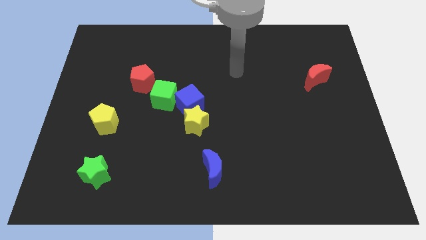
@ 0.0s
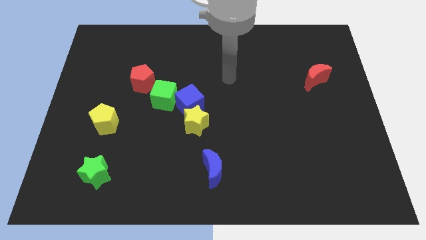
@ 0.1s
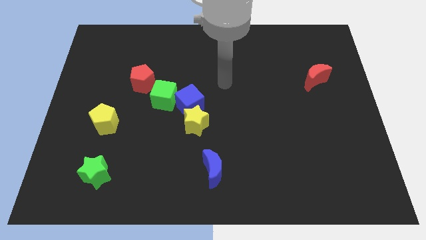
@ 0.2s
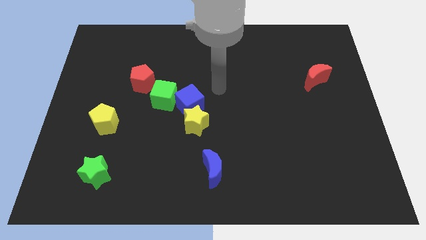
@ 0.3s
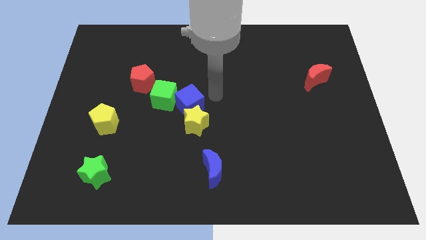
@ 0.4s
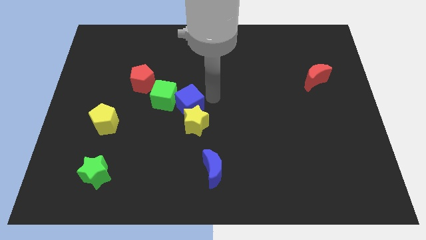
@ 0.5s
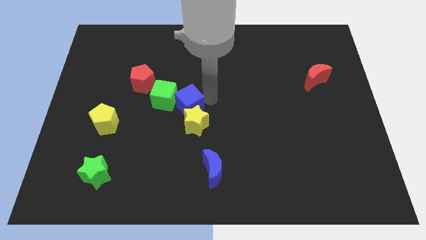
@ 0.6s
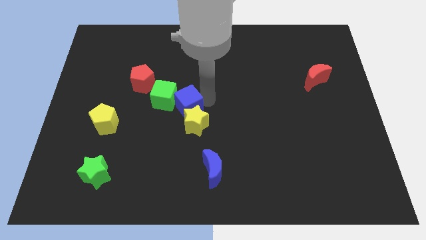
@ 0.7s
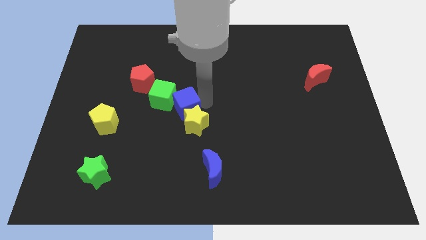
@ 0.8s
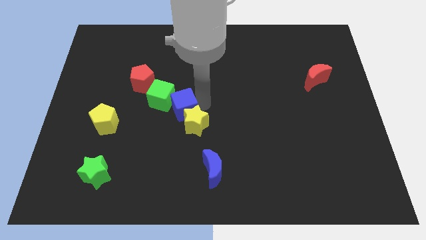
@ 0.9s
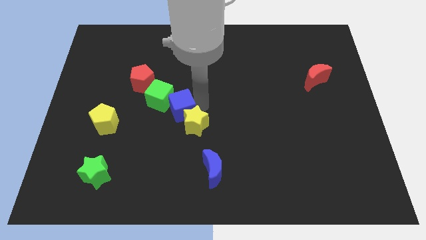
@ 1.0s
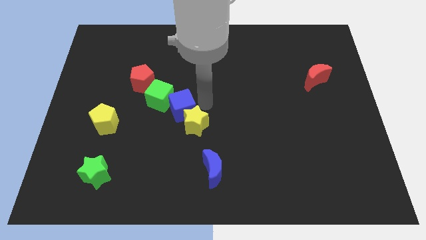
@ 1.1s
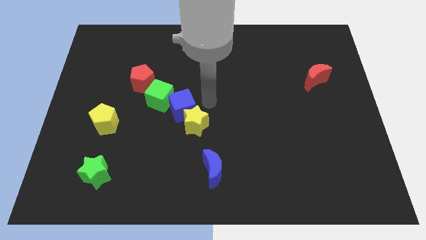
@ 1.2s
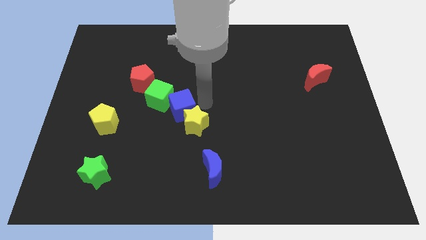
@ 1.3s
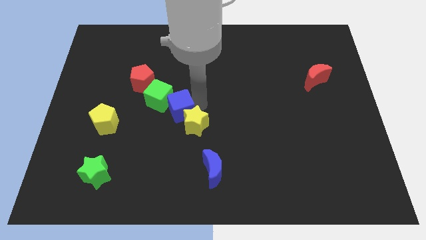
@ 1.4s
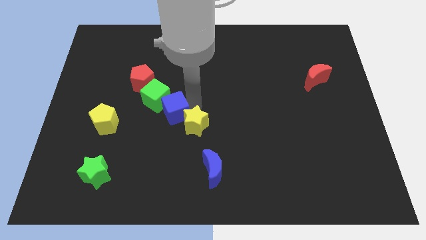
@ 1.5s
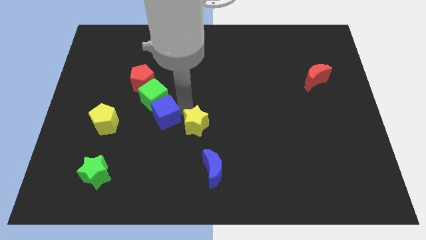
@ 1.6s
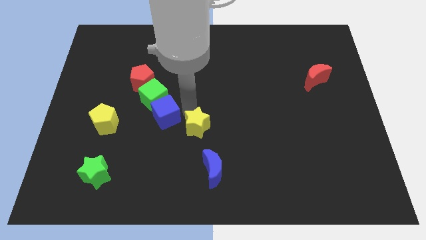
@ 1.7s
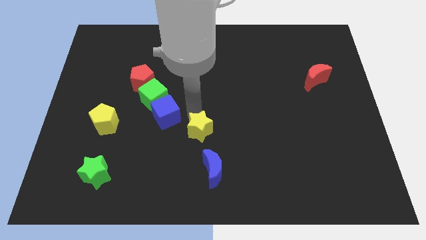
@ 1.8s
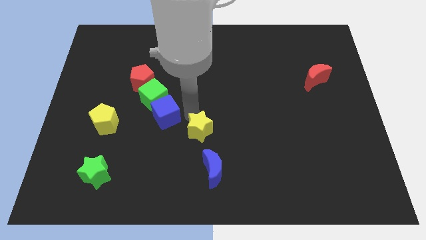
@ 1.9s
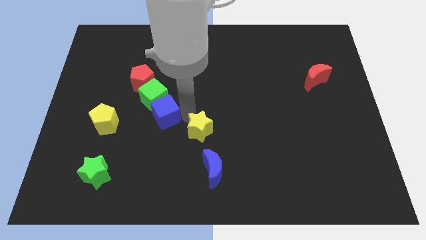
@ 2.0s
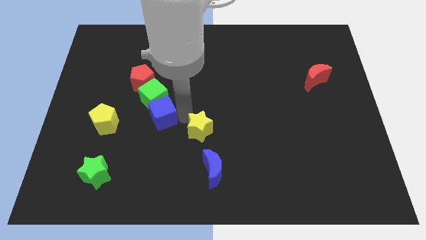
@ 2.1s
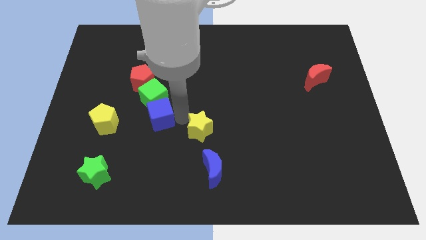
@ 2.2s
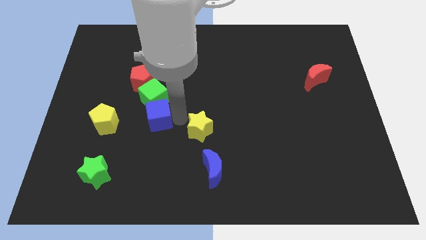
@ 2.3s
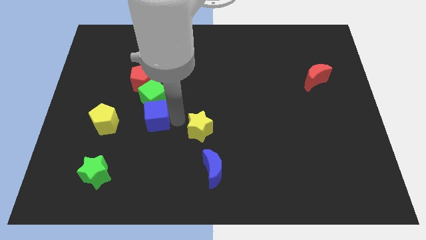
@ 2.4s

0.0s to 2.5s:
move the blue cube to the left a little

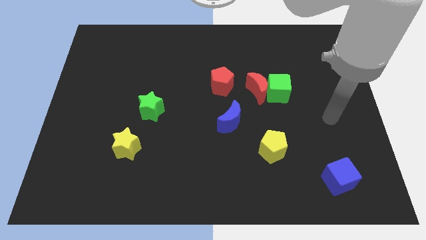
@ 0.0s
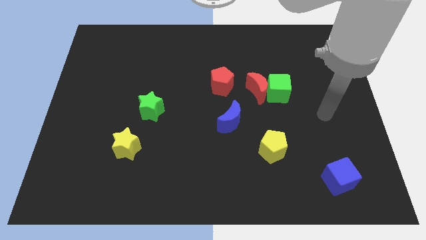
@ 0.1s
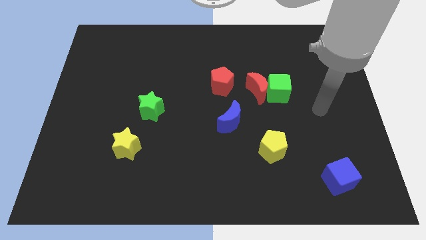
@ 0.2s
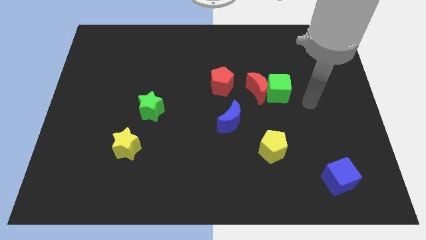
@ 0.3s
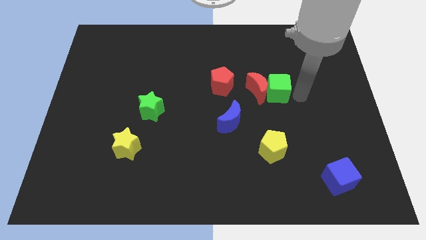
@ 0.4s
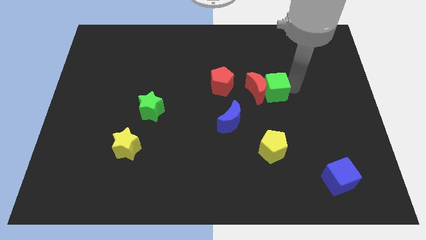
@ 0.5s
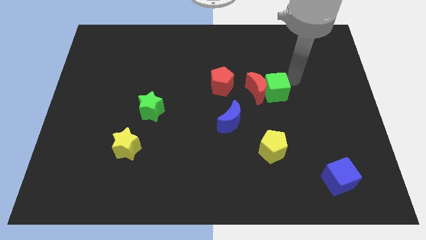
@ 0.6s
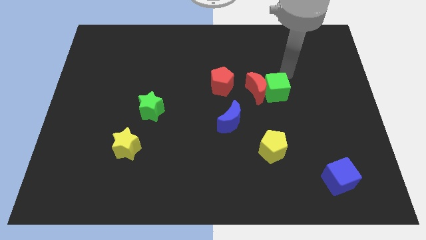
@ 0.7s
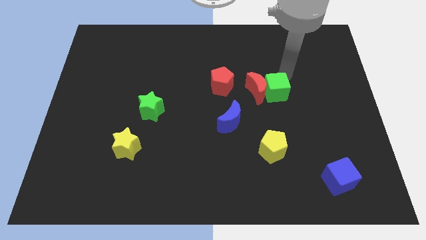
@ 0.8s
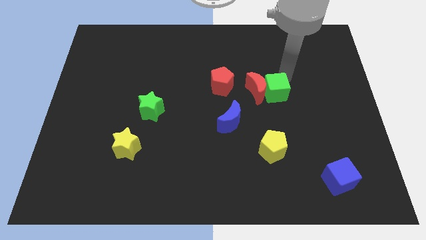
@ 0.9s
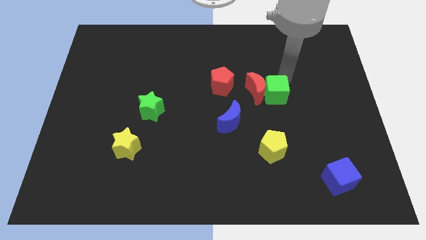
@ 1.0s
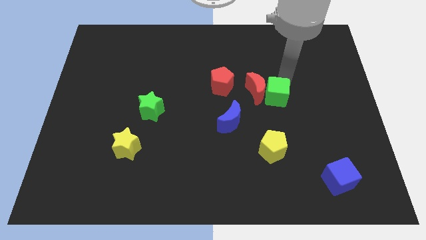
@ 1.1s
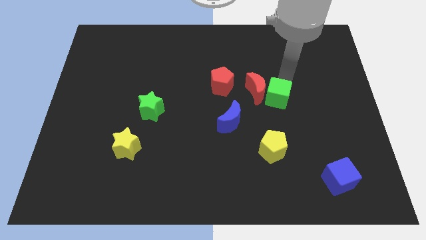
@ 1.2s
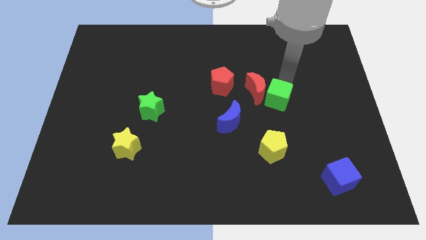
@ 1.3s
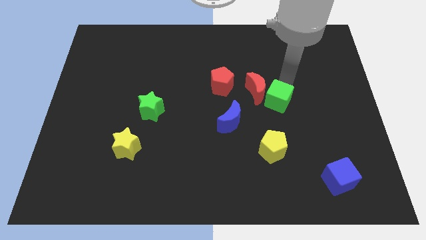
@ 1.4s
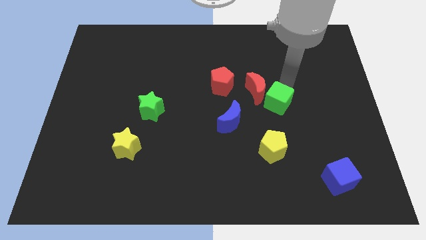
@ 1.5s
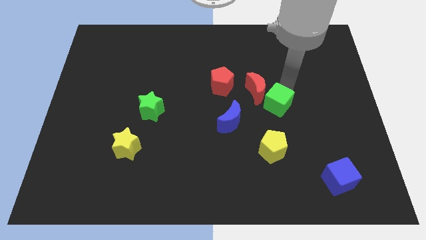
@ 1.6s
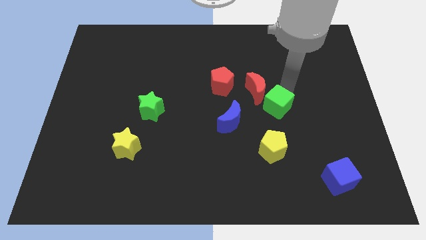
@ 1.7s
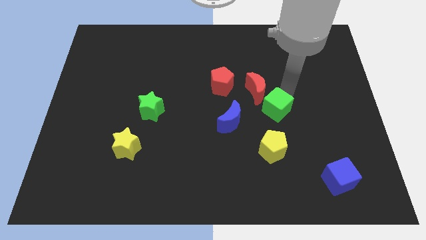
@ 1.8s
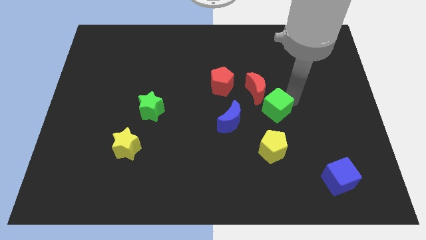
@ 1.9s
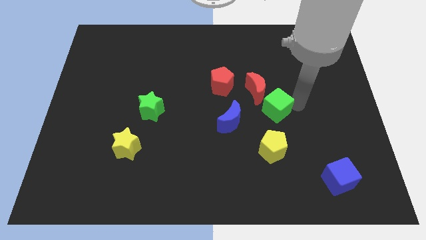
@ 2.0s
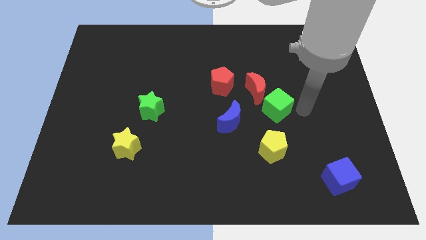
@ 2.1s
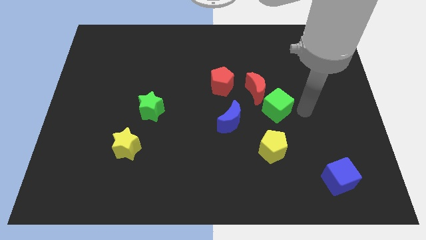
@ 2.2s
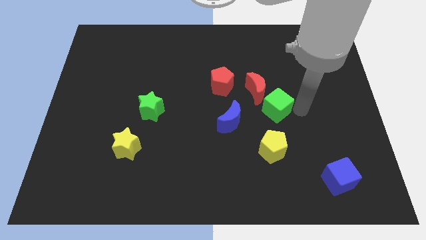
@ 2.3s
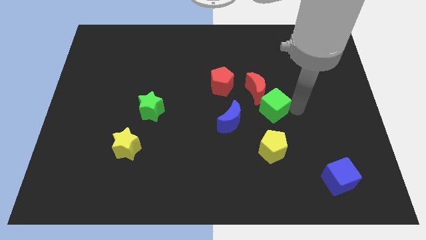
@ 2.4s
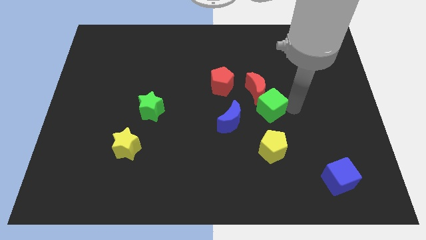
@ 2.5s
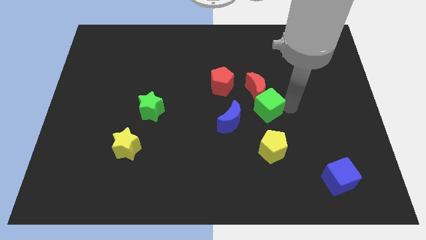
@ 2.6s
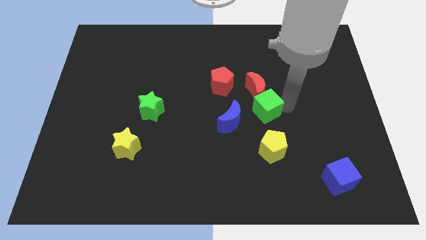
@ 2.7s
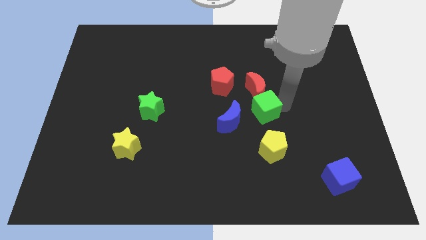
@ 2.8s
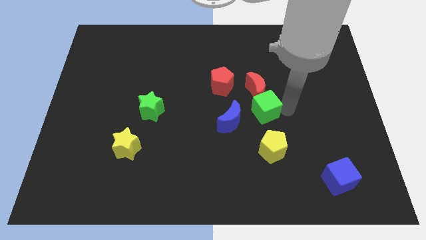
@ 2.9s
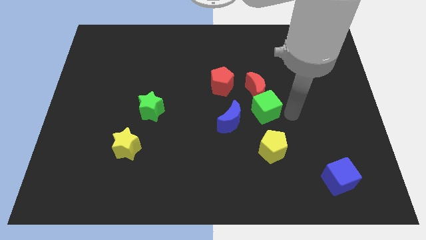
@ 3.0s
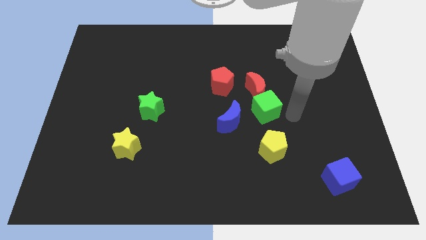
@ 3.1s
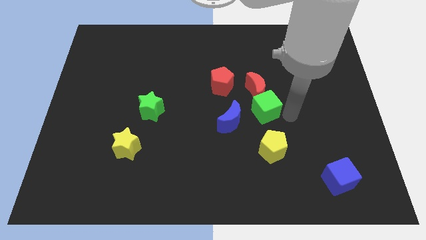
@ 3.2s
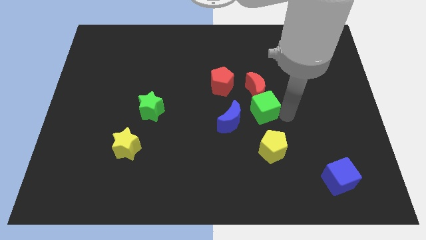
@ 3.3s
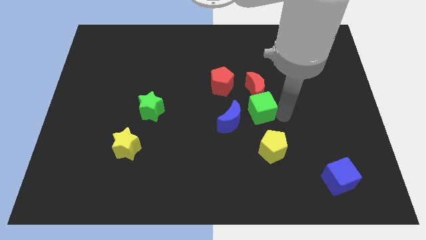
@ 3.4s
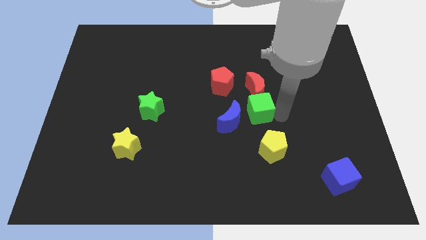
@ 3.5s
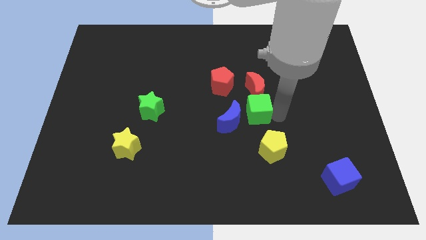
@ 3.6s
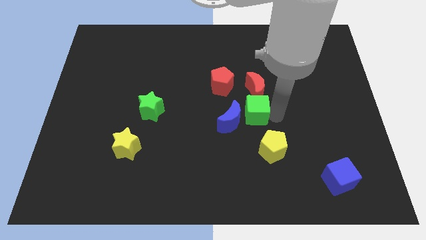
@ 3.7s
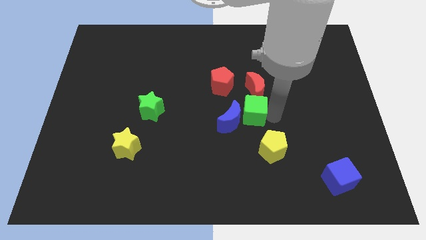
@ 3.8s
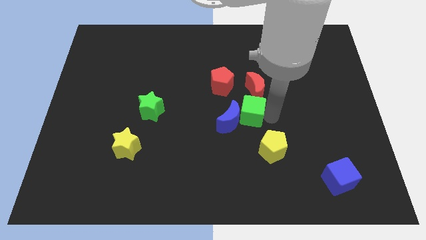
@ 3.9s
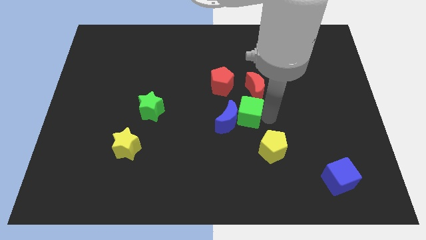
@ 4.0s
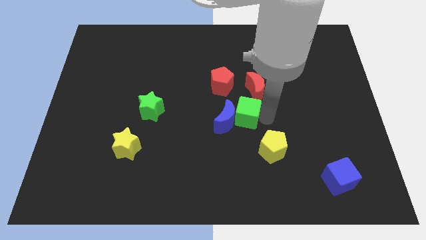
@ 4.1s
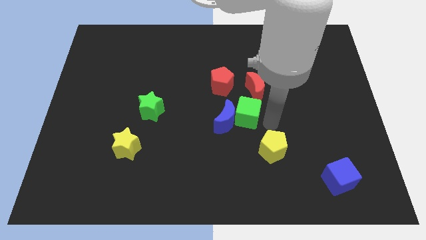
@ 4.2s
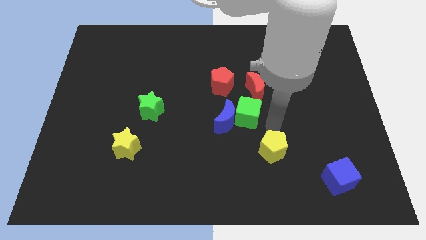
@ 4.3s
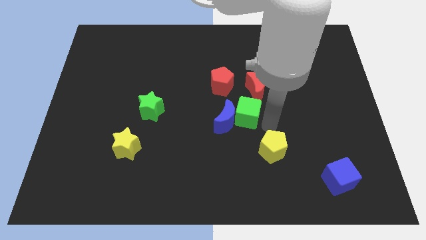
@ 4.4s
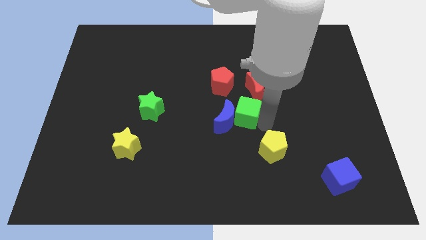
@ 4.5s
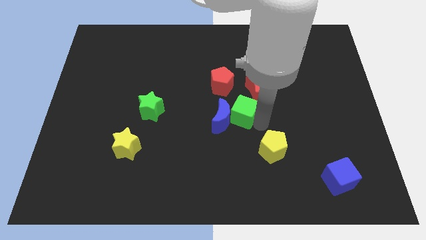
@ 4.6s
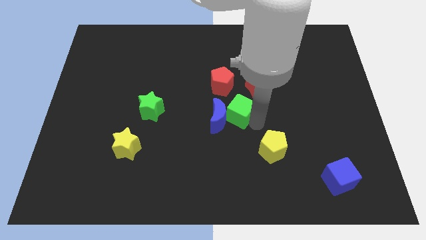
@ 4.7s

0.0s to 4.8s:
slightly move the green cube left

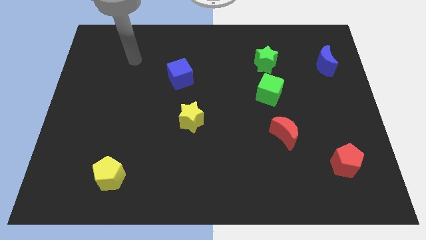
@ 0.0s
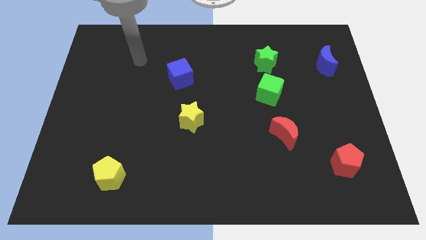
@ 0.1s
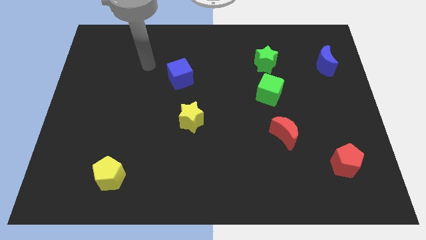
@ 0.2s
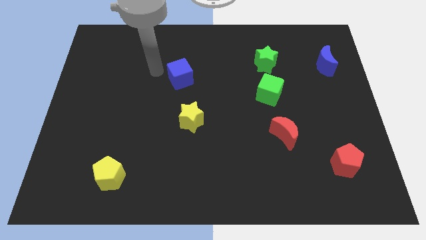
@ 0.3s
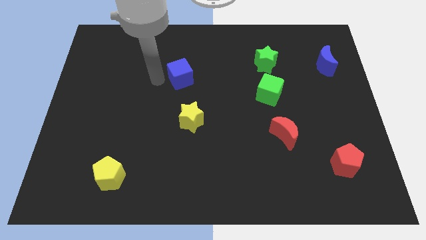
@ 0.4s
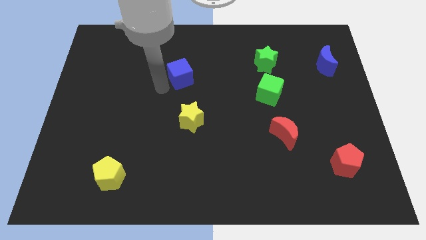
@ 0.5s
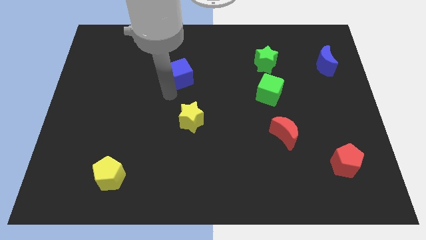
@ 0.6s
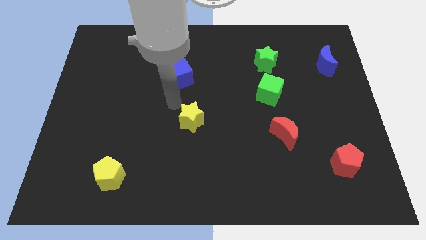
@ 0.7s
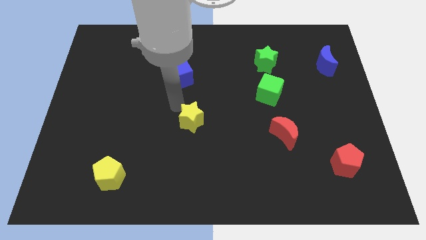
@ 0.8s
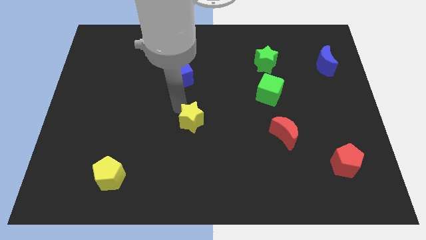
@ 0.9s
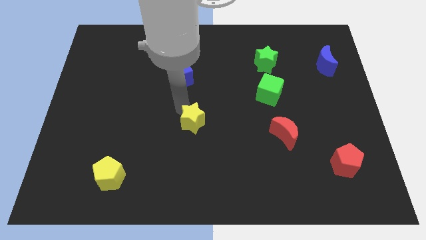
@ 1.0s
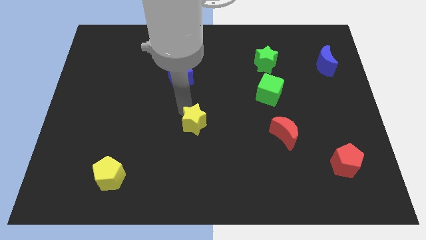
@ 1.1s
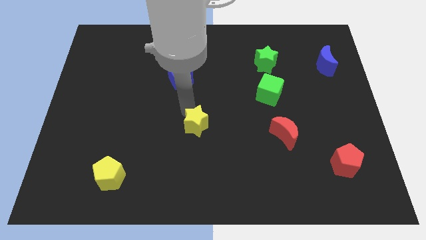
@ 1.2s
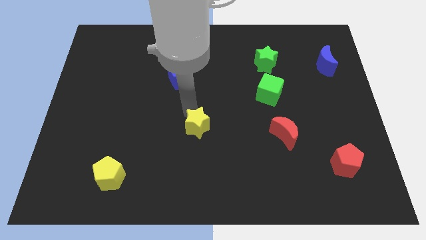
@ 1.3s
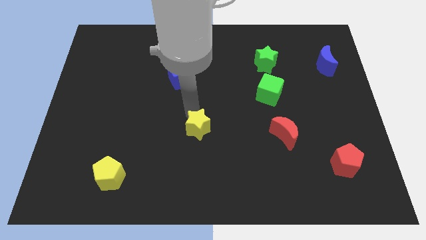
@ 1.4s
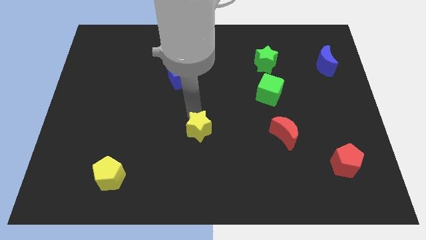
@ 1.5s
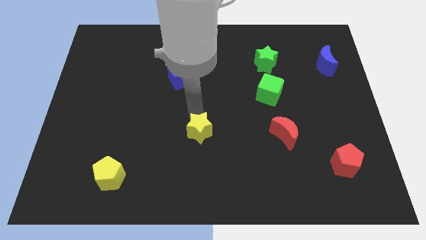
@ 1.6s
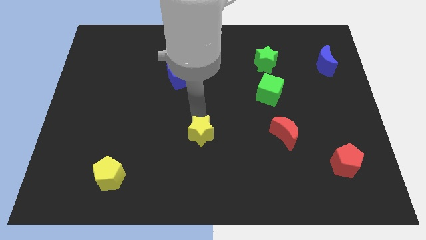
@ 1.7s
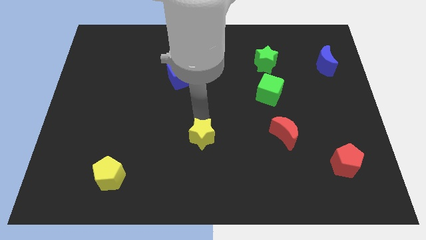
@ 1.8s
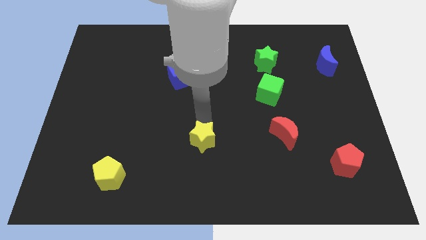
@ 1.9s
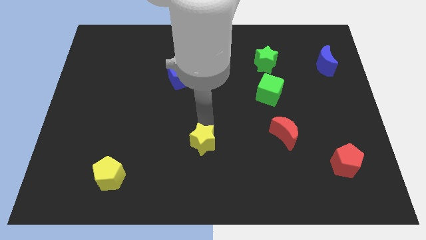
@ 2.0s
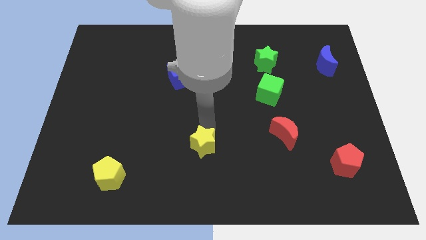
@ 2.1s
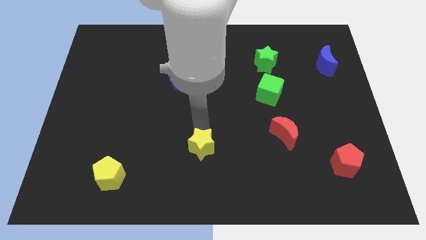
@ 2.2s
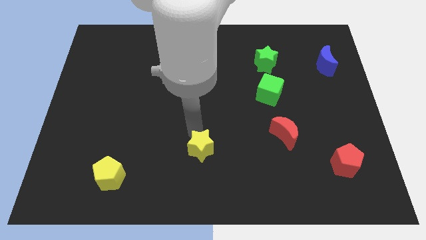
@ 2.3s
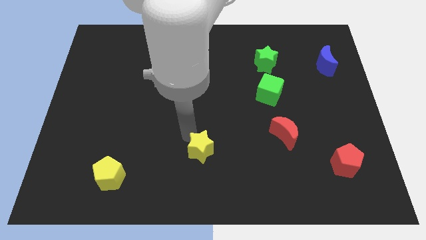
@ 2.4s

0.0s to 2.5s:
slide the yellow star downwards and then to the right a bit
